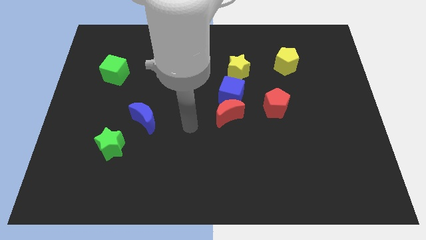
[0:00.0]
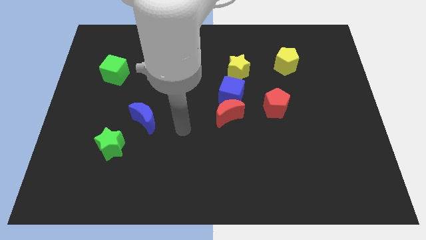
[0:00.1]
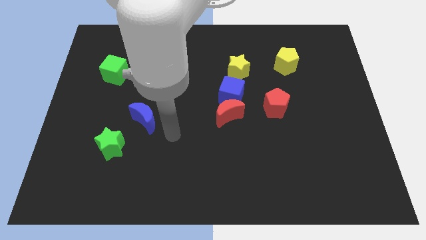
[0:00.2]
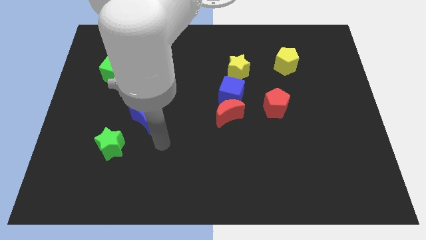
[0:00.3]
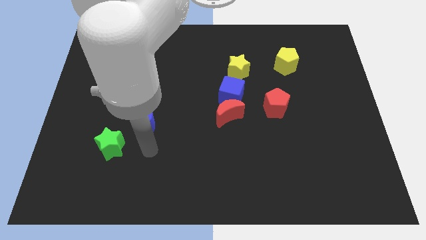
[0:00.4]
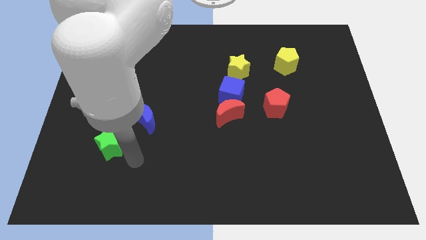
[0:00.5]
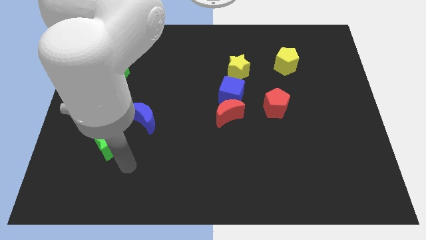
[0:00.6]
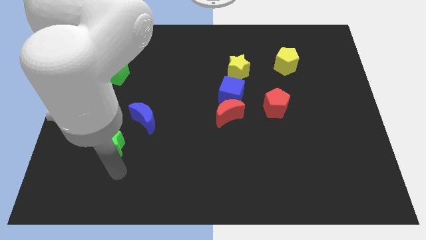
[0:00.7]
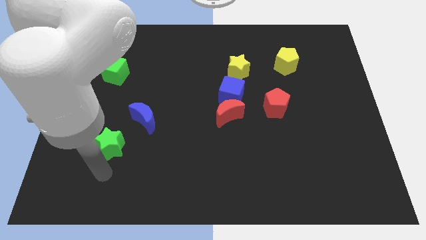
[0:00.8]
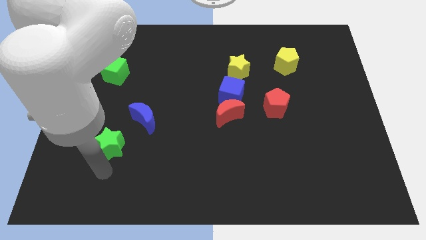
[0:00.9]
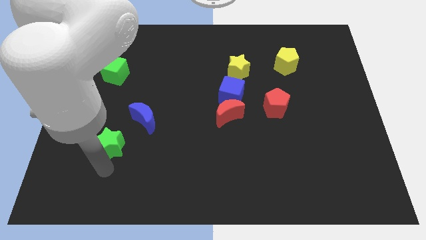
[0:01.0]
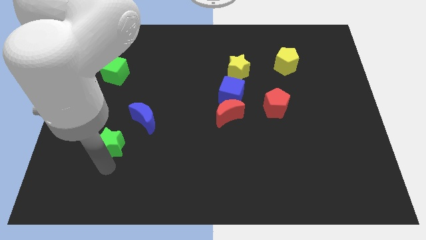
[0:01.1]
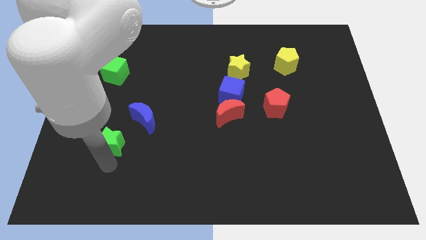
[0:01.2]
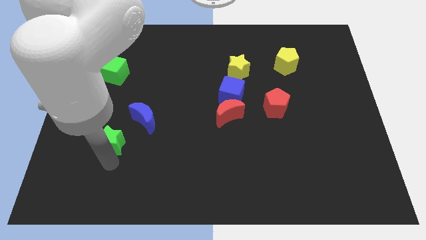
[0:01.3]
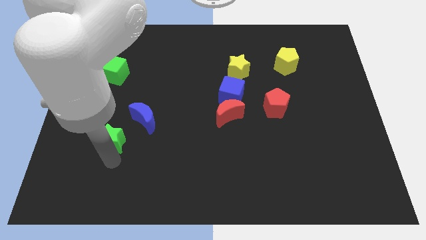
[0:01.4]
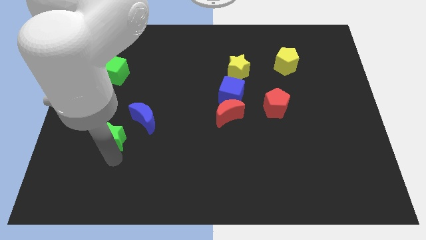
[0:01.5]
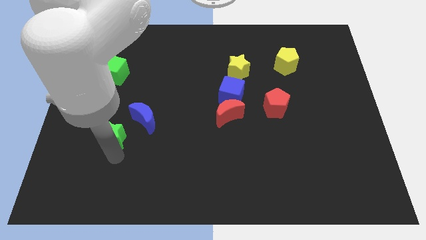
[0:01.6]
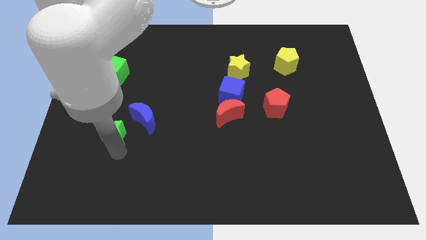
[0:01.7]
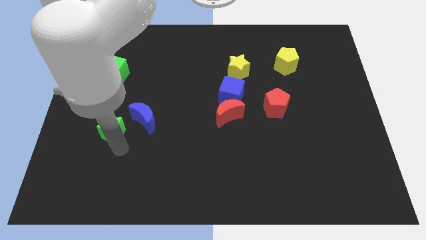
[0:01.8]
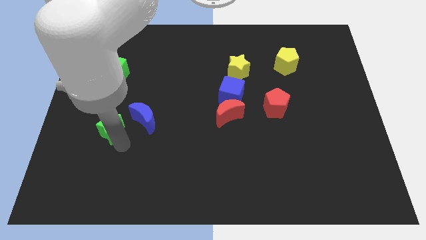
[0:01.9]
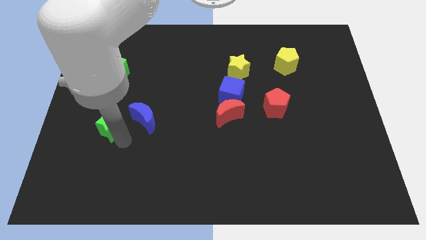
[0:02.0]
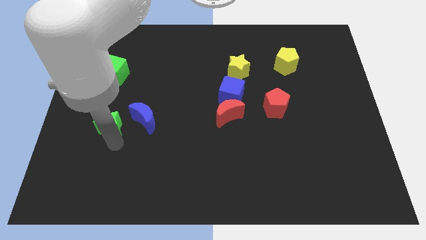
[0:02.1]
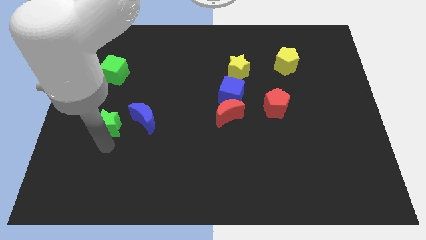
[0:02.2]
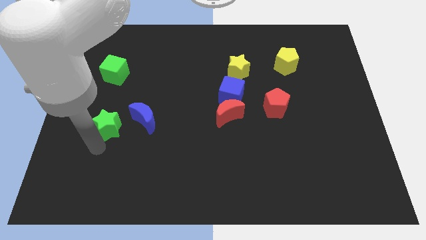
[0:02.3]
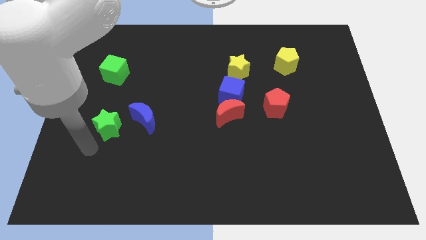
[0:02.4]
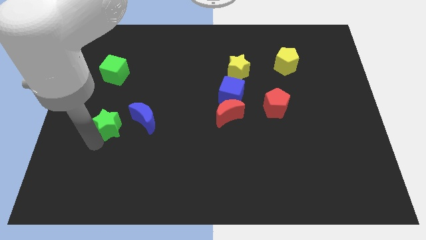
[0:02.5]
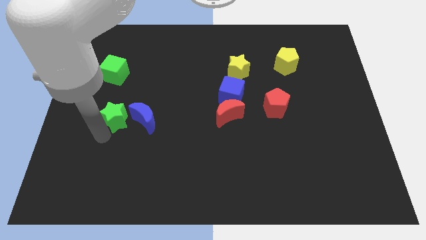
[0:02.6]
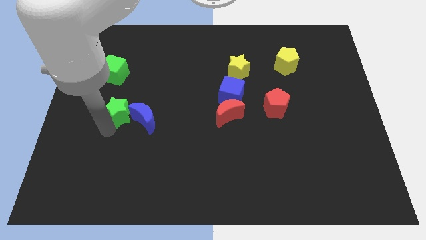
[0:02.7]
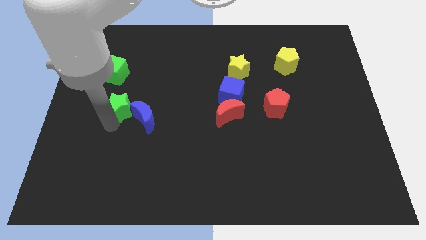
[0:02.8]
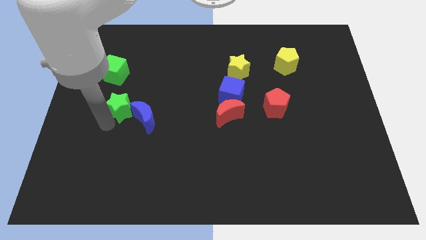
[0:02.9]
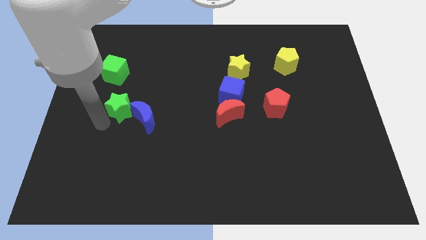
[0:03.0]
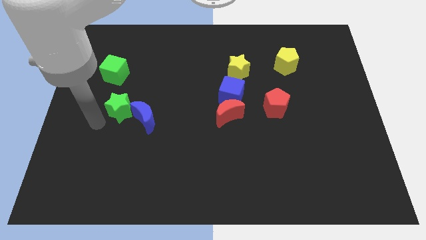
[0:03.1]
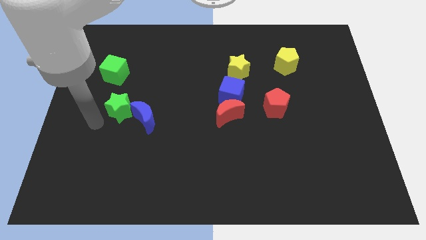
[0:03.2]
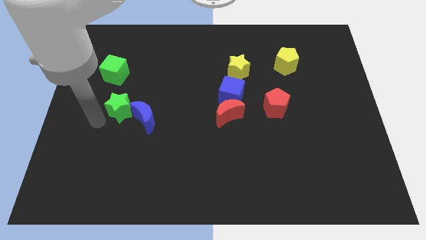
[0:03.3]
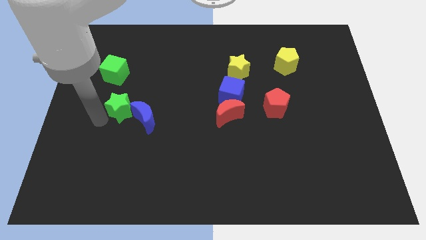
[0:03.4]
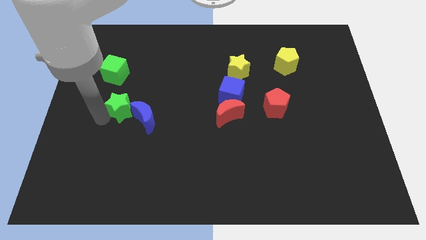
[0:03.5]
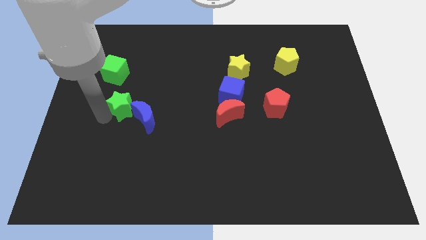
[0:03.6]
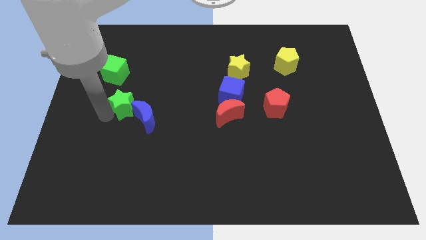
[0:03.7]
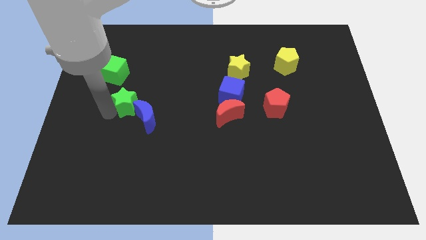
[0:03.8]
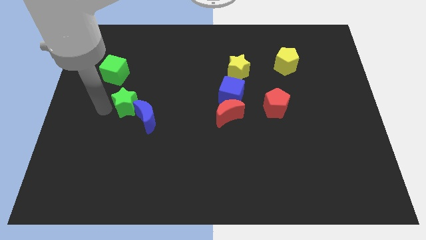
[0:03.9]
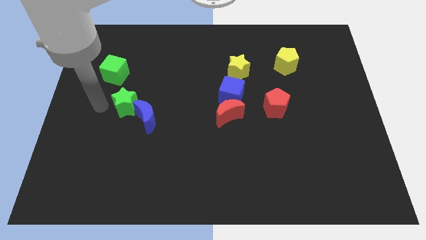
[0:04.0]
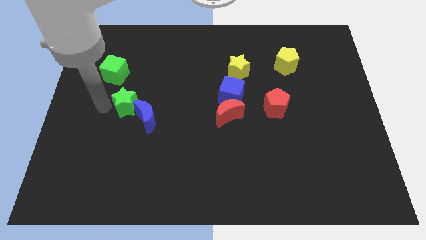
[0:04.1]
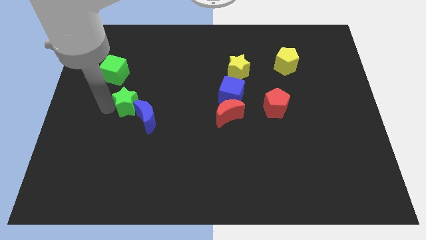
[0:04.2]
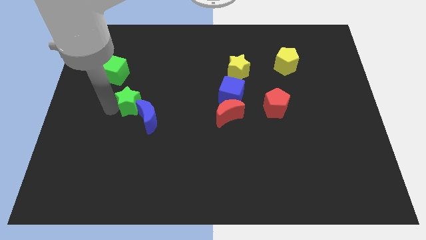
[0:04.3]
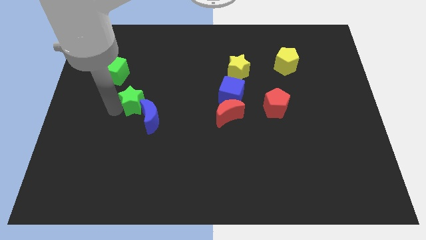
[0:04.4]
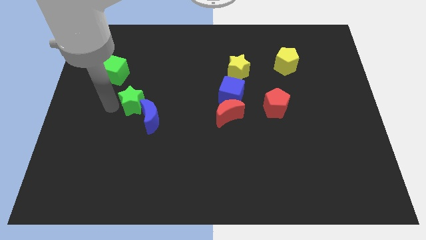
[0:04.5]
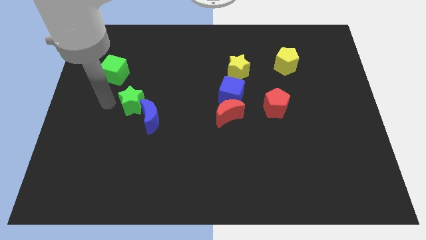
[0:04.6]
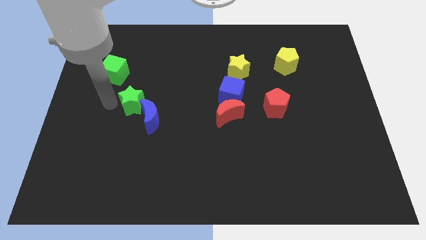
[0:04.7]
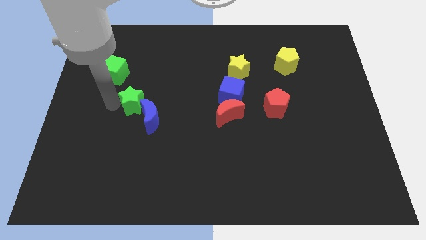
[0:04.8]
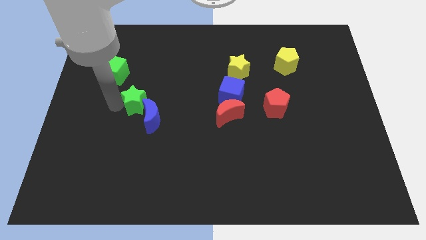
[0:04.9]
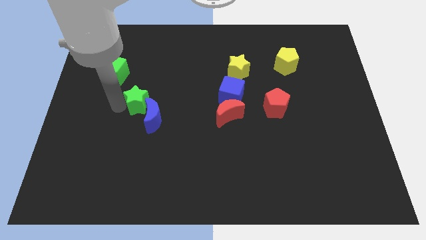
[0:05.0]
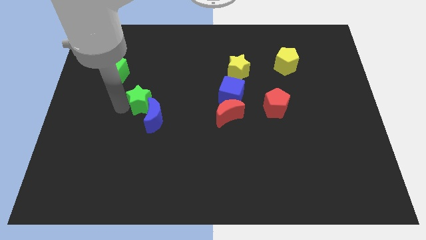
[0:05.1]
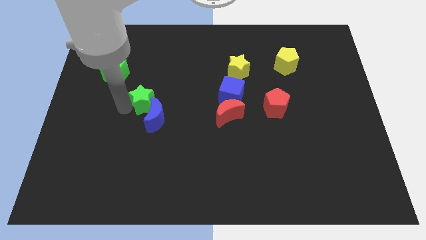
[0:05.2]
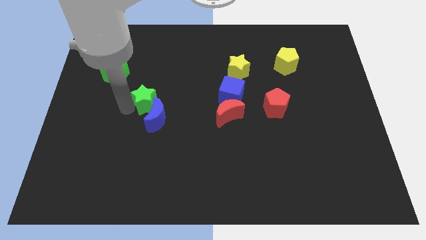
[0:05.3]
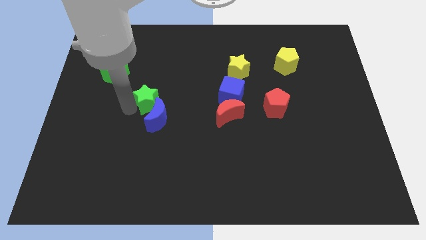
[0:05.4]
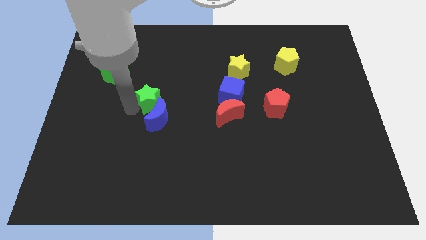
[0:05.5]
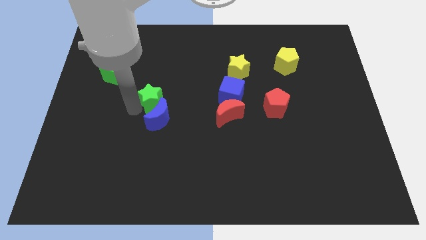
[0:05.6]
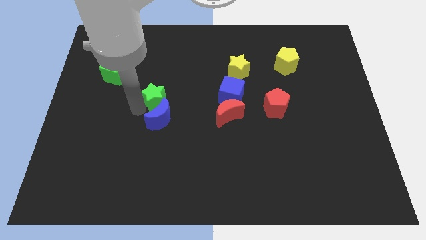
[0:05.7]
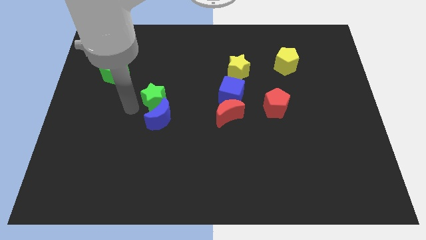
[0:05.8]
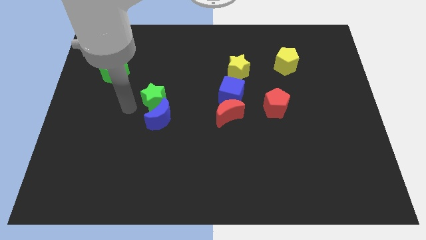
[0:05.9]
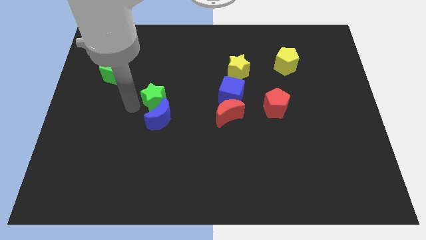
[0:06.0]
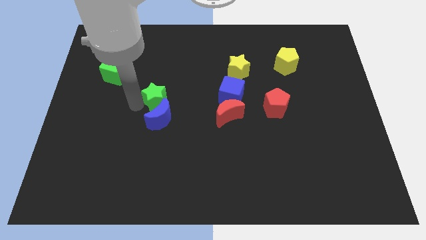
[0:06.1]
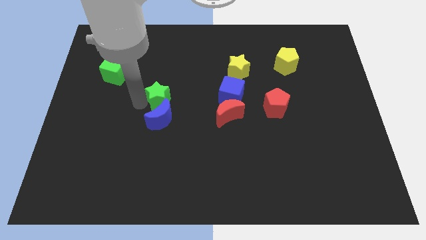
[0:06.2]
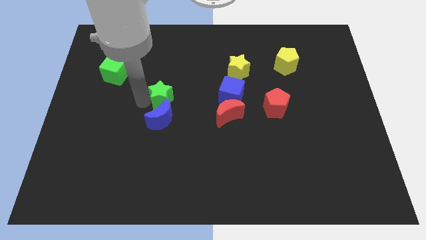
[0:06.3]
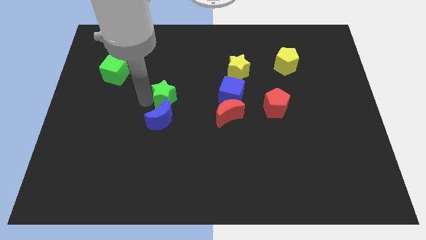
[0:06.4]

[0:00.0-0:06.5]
put the green star to the left of the blue cube

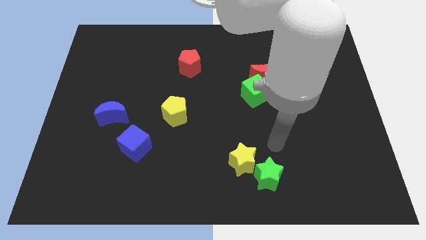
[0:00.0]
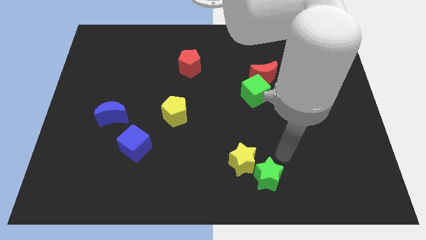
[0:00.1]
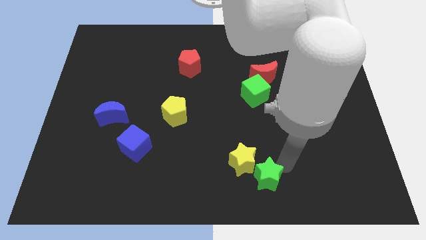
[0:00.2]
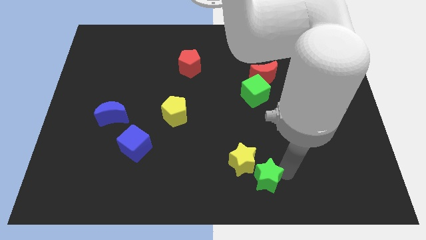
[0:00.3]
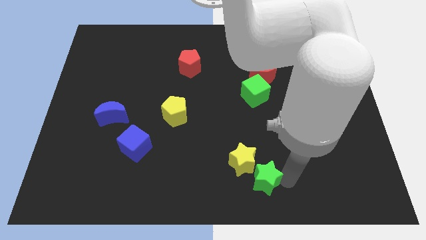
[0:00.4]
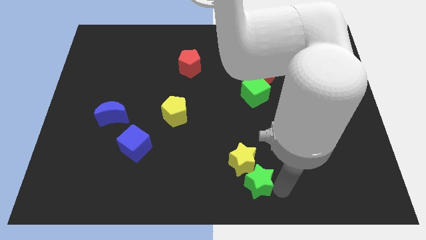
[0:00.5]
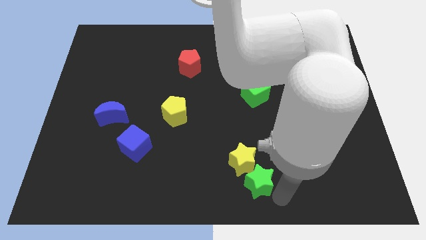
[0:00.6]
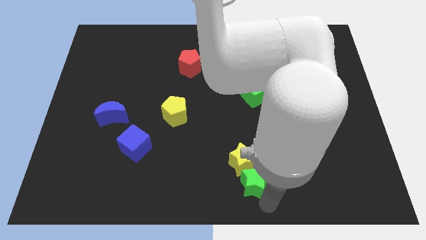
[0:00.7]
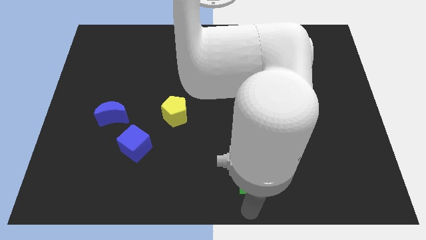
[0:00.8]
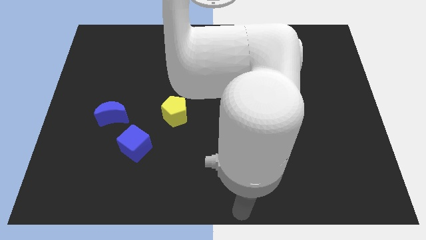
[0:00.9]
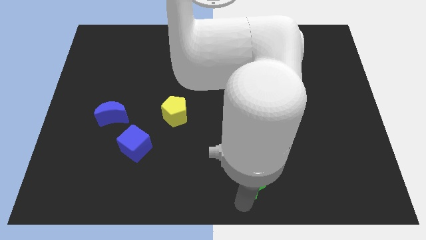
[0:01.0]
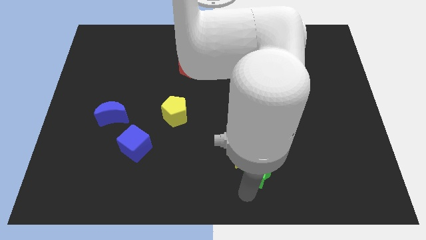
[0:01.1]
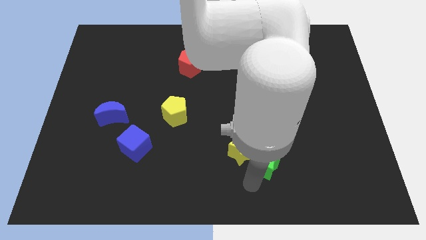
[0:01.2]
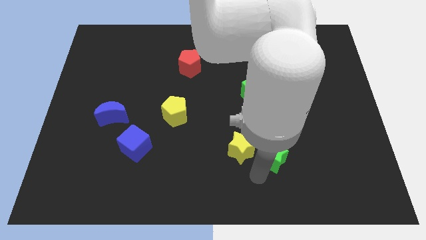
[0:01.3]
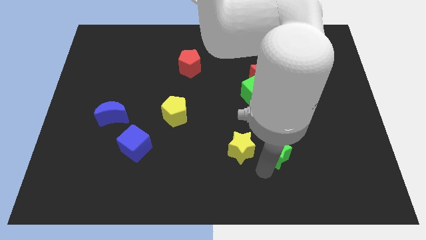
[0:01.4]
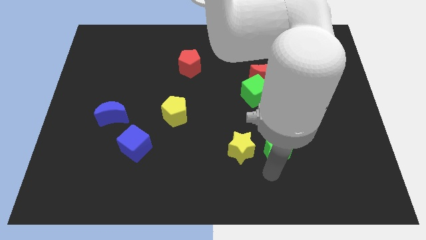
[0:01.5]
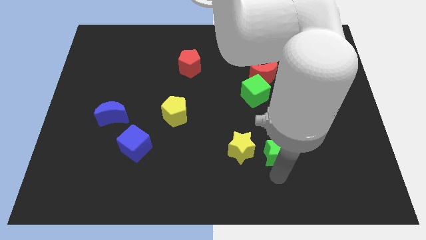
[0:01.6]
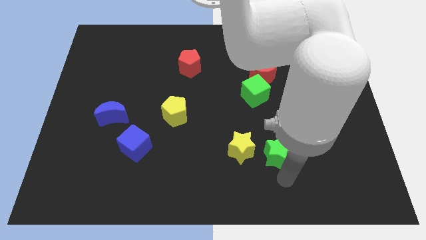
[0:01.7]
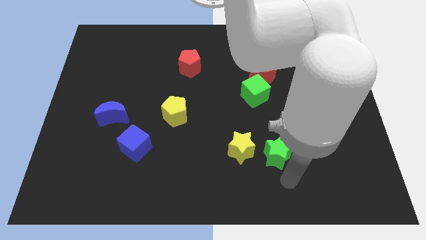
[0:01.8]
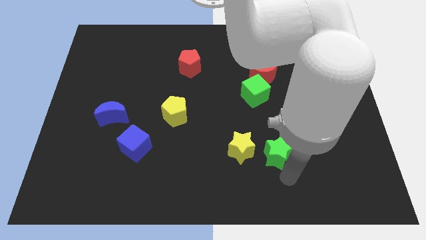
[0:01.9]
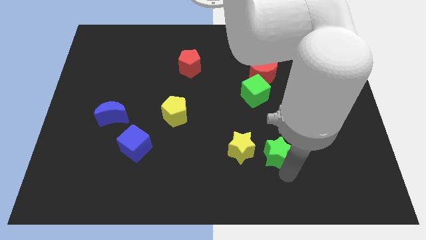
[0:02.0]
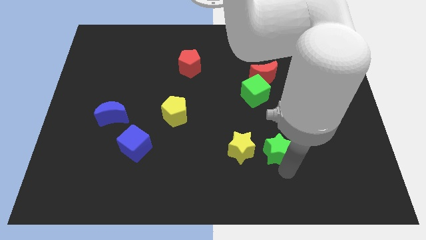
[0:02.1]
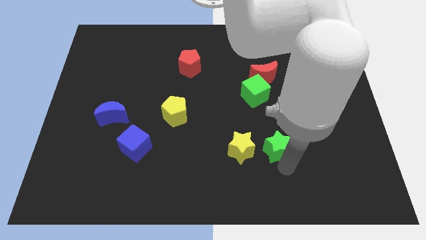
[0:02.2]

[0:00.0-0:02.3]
move the green star diagonally up and to the right of the yellow star
